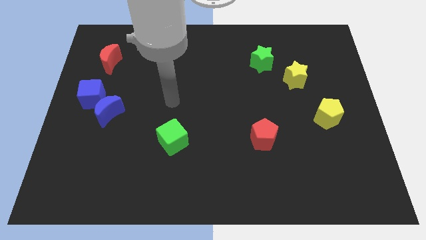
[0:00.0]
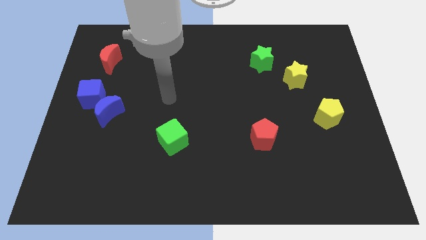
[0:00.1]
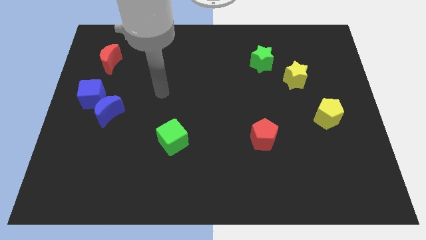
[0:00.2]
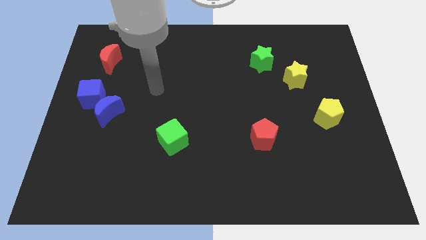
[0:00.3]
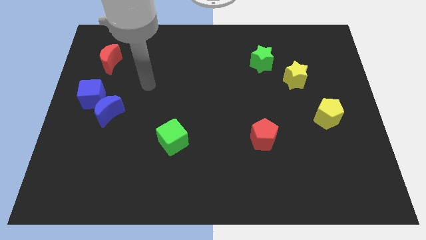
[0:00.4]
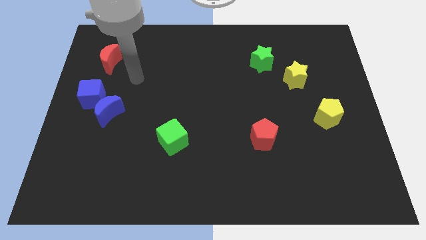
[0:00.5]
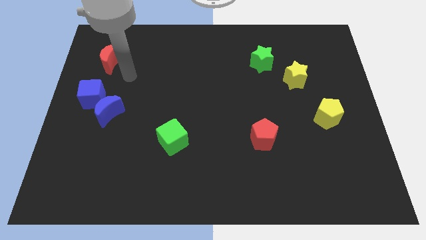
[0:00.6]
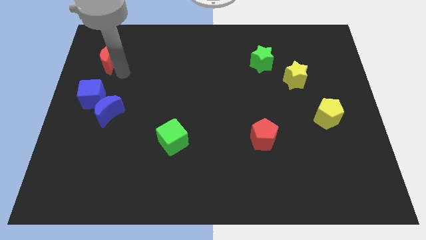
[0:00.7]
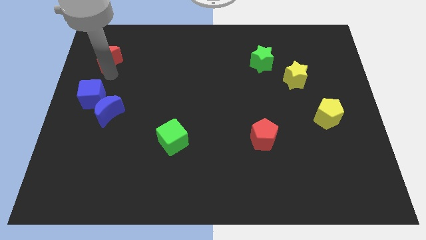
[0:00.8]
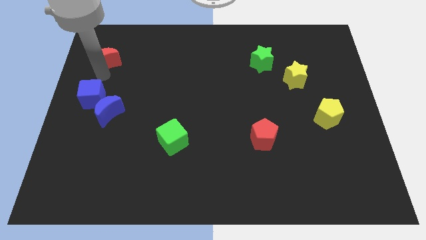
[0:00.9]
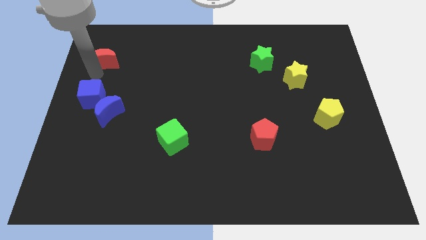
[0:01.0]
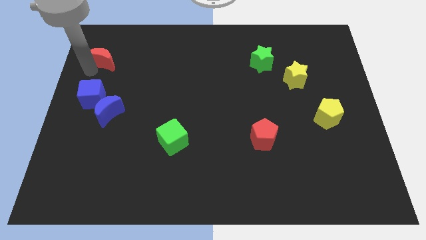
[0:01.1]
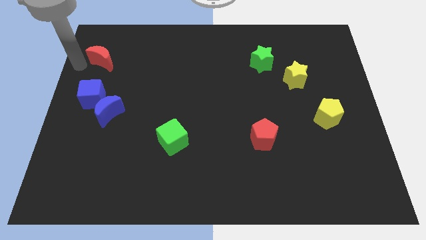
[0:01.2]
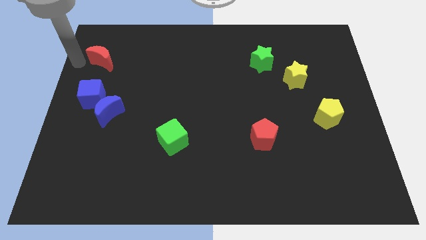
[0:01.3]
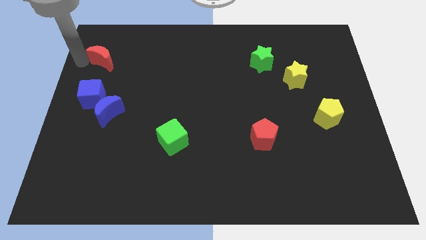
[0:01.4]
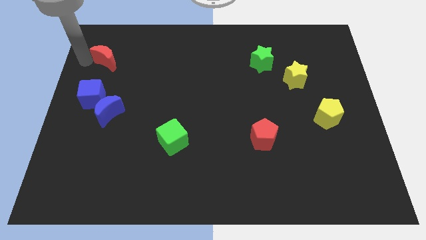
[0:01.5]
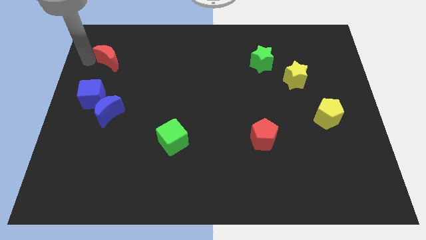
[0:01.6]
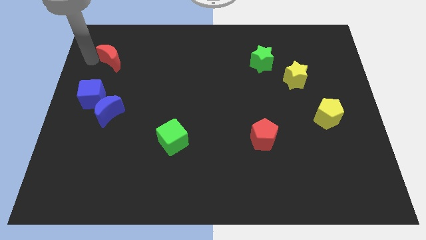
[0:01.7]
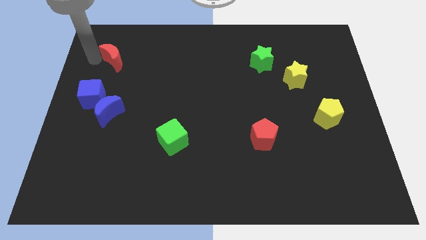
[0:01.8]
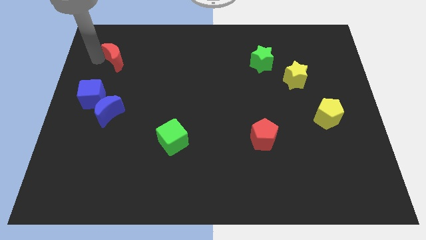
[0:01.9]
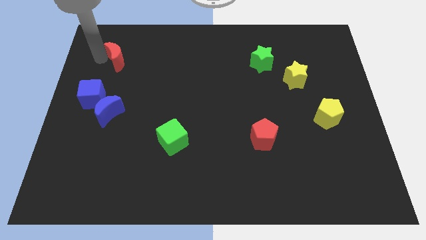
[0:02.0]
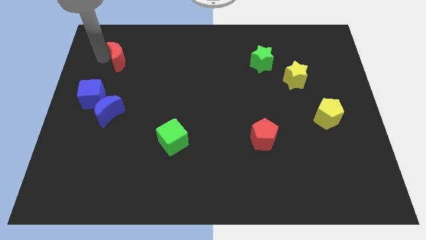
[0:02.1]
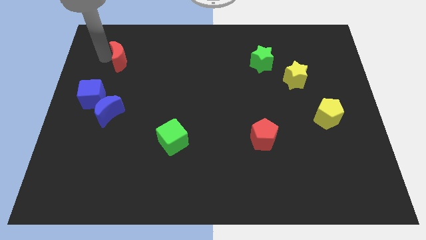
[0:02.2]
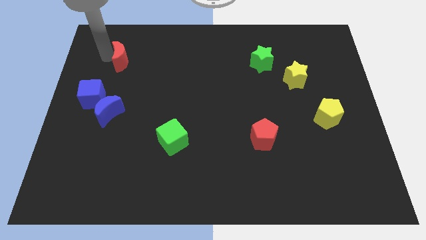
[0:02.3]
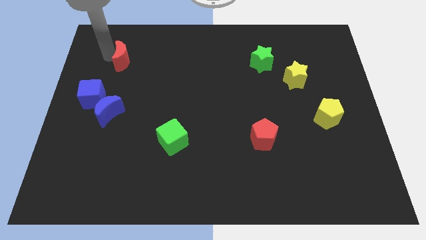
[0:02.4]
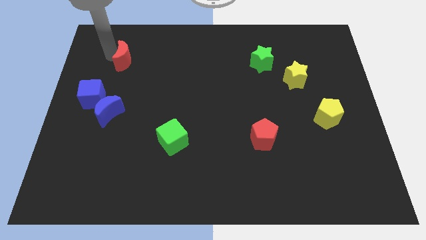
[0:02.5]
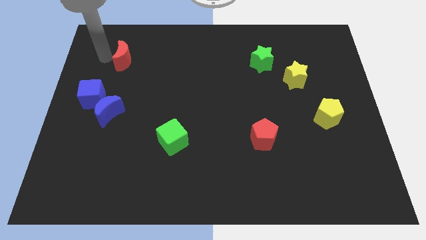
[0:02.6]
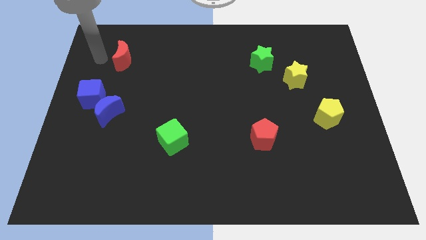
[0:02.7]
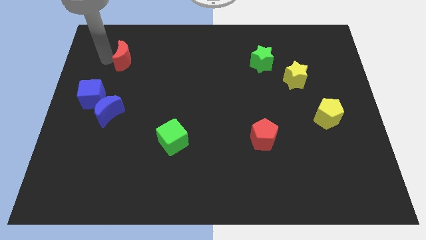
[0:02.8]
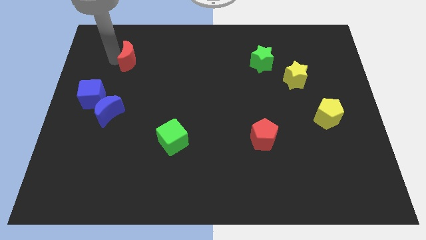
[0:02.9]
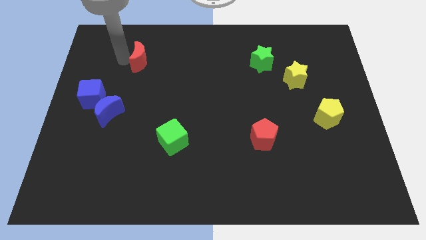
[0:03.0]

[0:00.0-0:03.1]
move the red moon a bit to the right

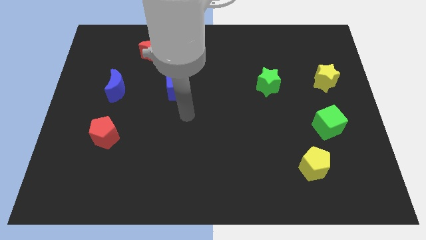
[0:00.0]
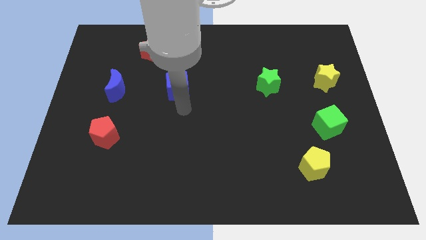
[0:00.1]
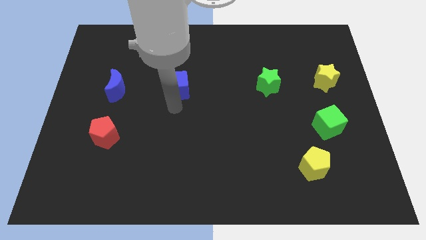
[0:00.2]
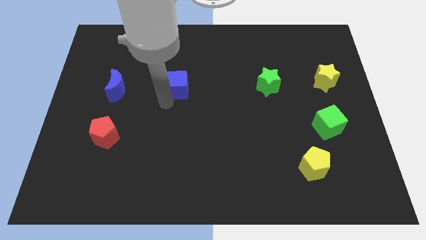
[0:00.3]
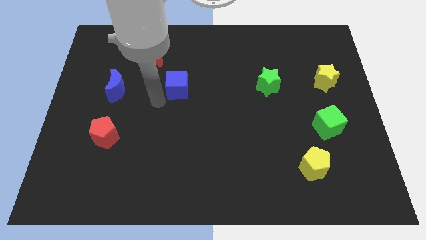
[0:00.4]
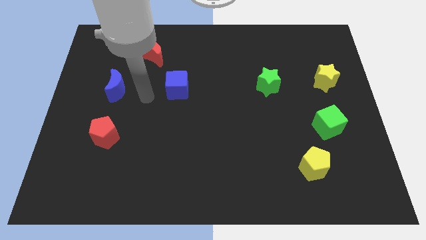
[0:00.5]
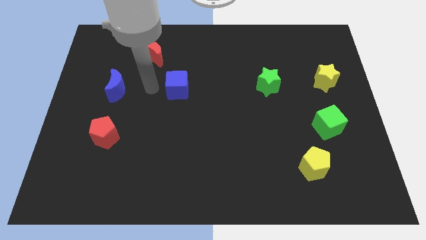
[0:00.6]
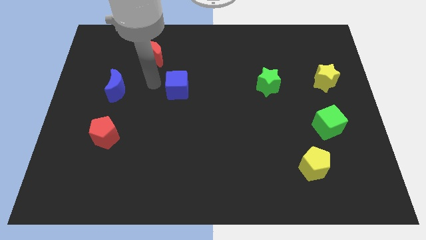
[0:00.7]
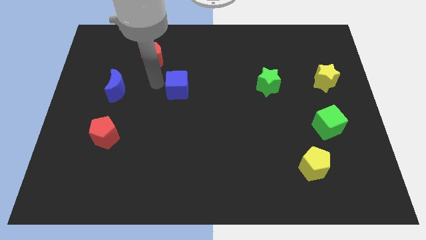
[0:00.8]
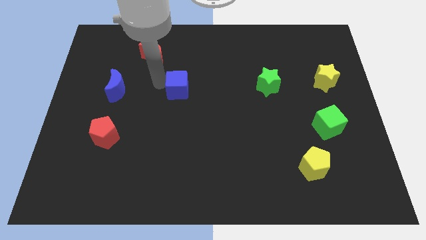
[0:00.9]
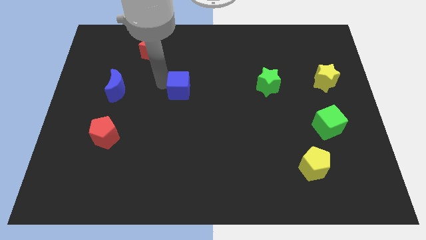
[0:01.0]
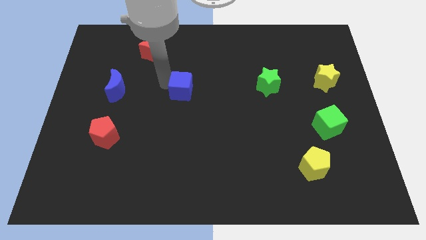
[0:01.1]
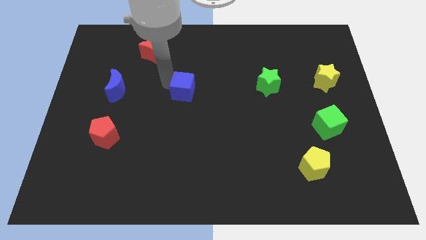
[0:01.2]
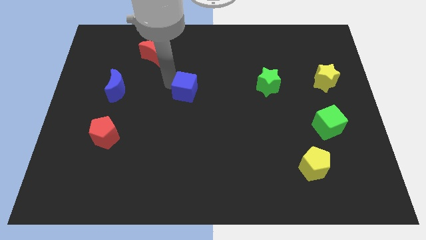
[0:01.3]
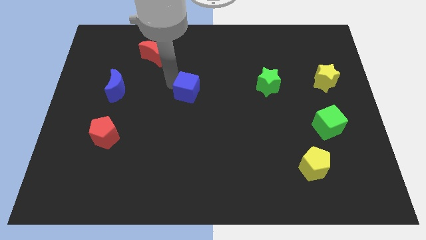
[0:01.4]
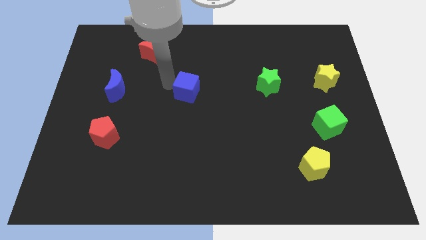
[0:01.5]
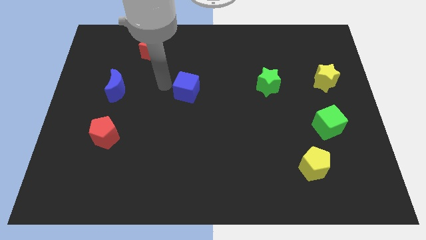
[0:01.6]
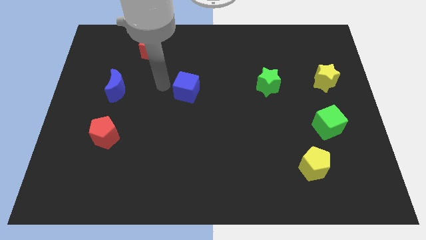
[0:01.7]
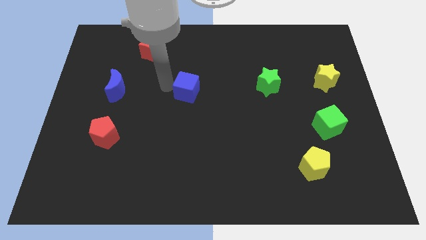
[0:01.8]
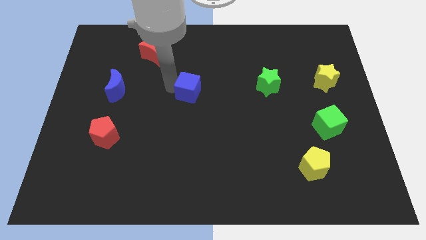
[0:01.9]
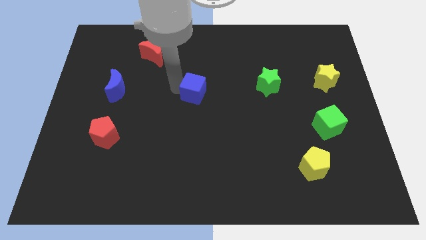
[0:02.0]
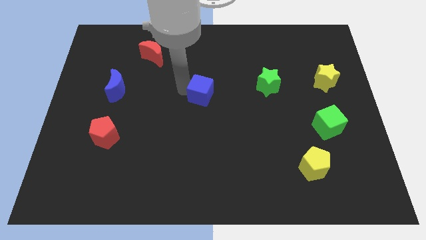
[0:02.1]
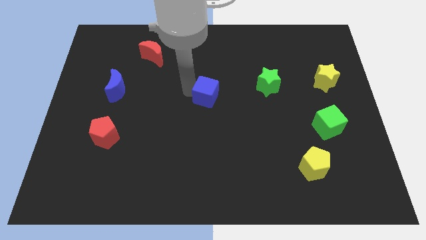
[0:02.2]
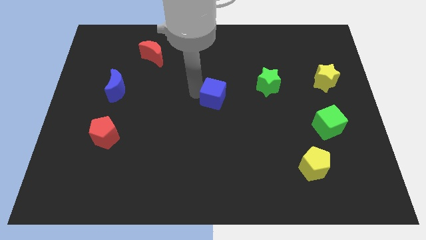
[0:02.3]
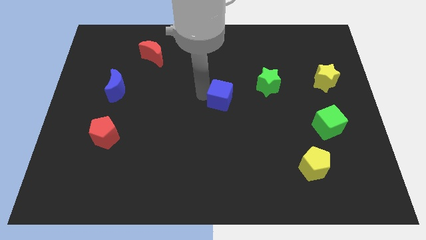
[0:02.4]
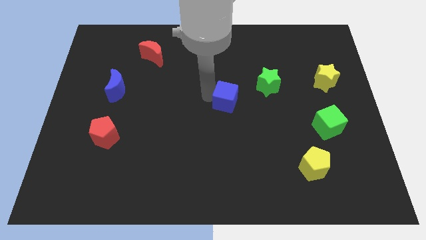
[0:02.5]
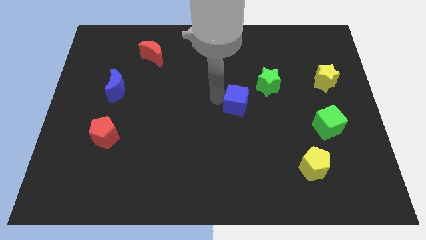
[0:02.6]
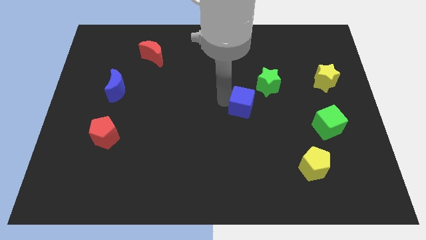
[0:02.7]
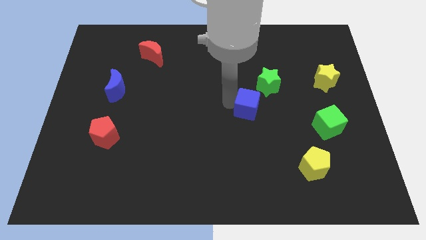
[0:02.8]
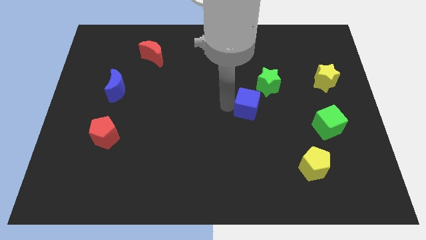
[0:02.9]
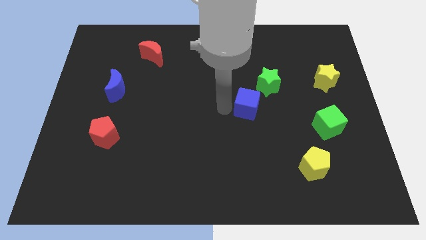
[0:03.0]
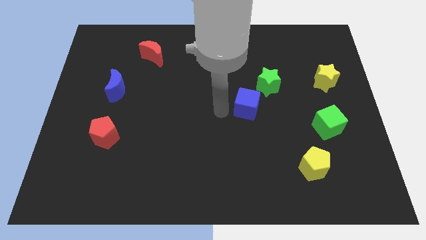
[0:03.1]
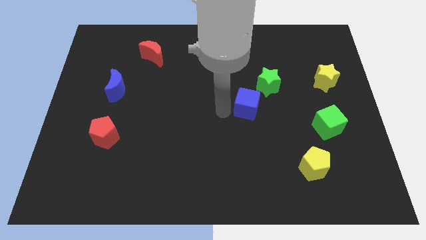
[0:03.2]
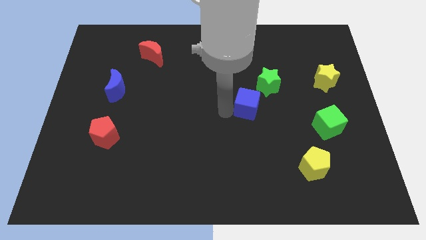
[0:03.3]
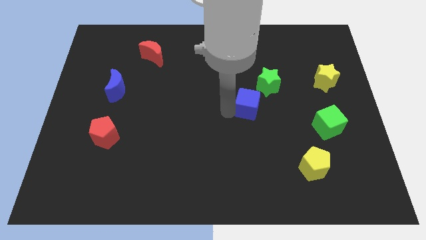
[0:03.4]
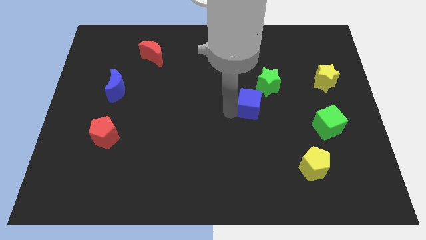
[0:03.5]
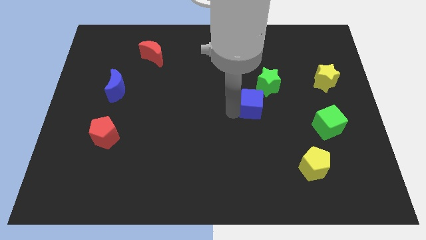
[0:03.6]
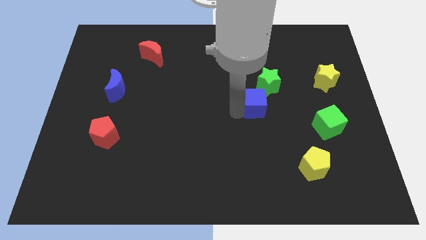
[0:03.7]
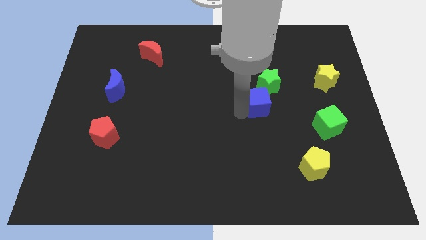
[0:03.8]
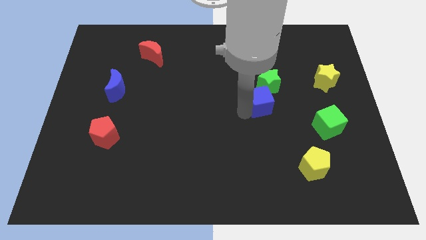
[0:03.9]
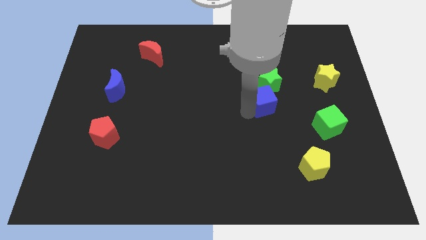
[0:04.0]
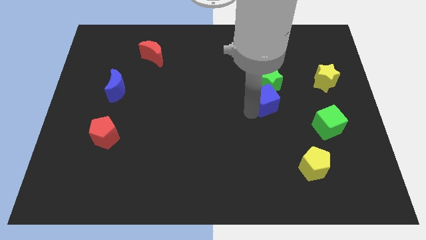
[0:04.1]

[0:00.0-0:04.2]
move the blue cube to the right

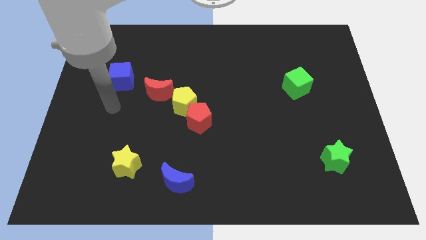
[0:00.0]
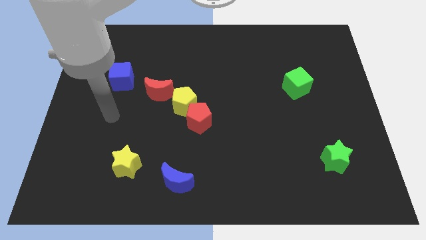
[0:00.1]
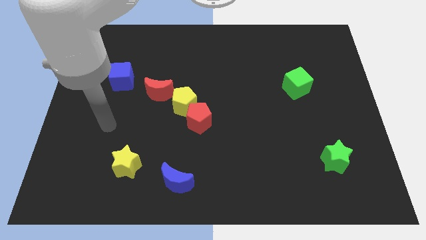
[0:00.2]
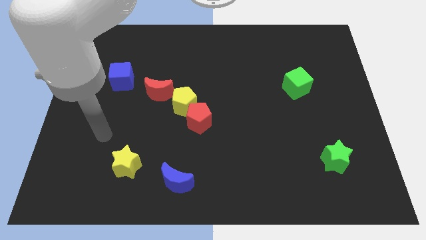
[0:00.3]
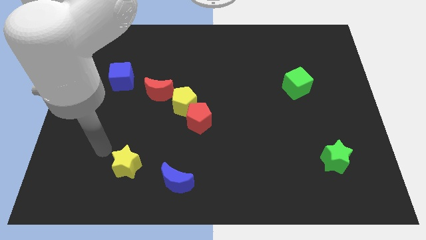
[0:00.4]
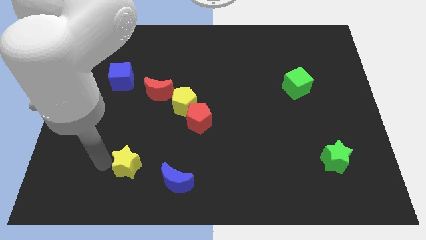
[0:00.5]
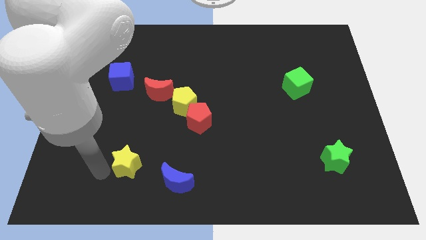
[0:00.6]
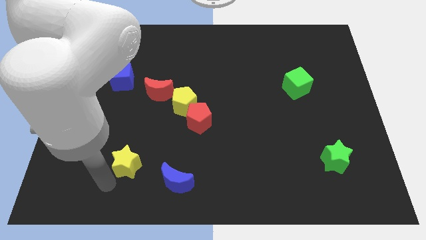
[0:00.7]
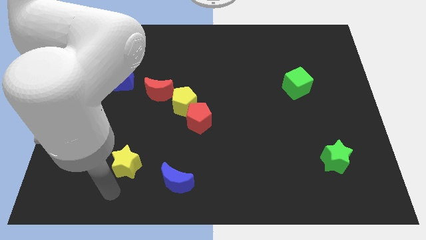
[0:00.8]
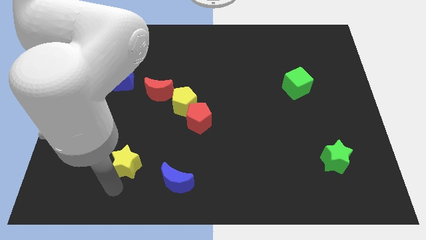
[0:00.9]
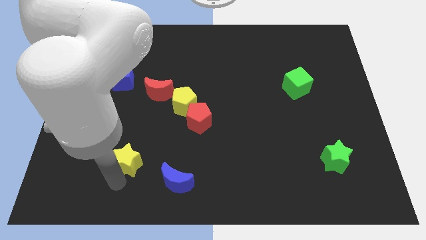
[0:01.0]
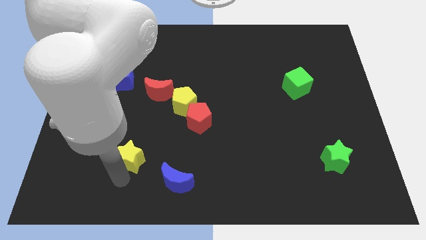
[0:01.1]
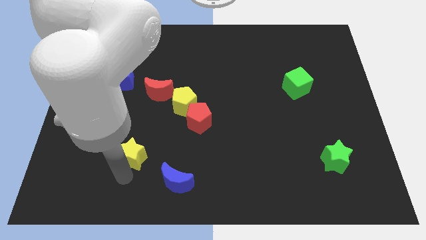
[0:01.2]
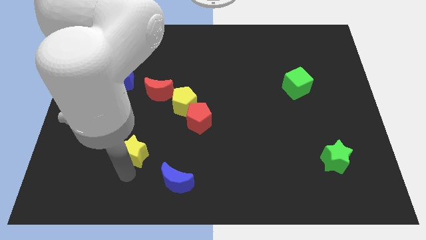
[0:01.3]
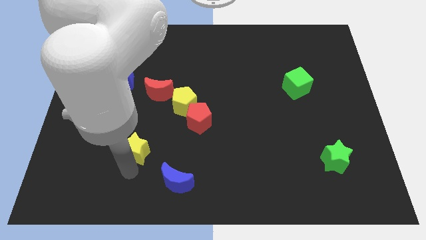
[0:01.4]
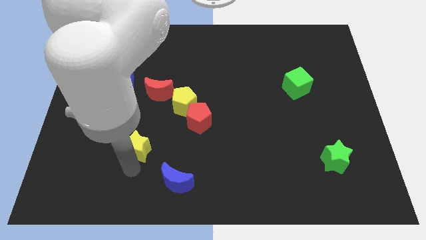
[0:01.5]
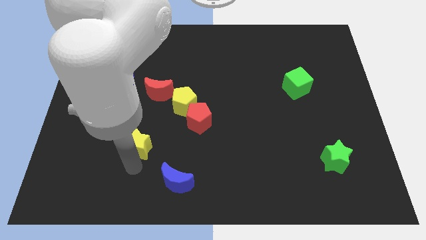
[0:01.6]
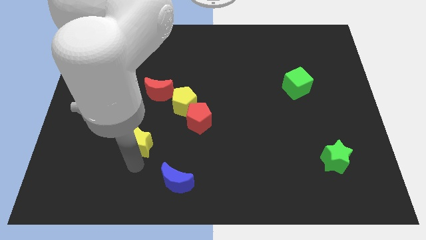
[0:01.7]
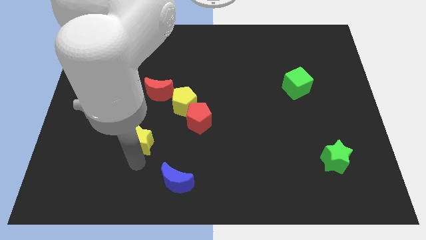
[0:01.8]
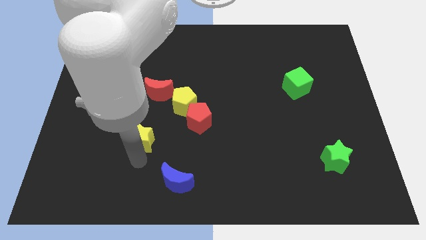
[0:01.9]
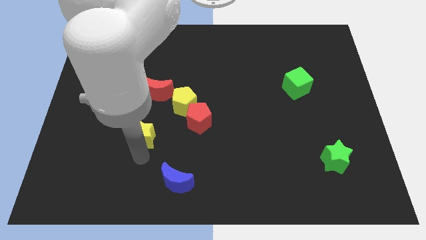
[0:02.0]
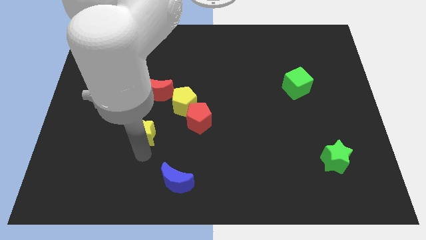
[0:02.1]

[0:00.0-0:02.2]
slightly slide the yellow star upwards
